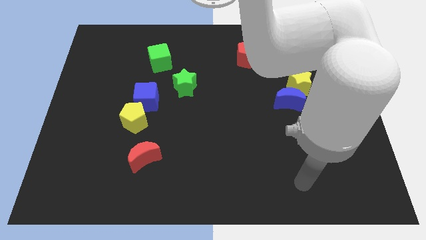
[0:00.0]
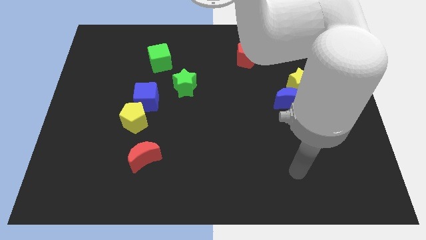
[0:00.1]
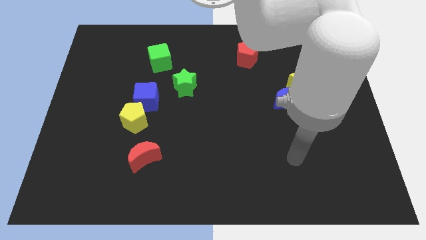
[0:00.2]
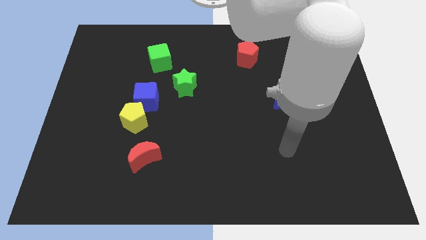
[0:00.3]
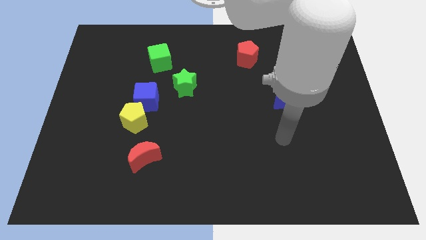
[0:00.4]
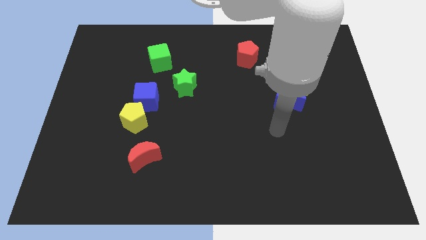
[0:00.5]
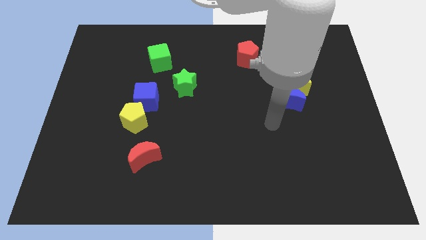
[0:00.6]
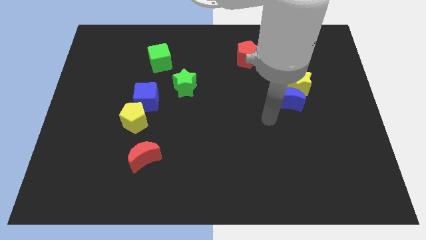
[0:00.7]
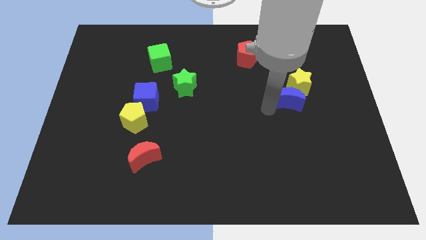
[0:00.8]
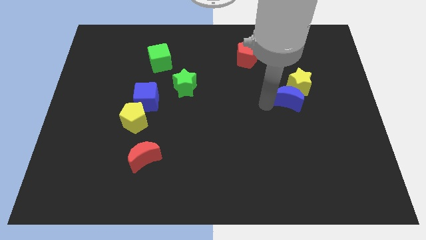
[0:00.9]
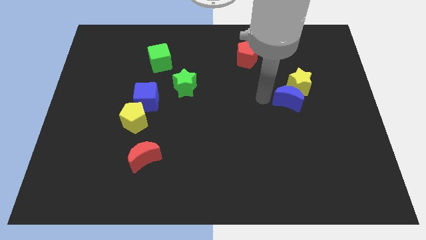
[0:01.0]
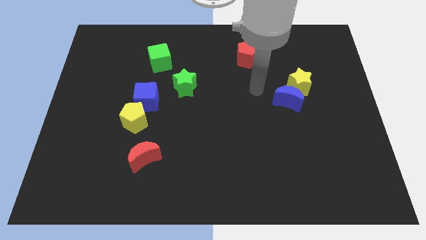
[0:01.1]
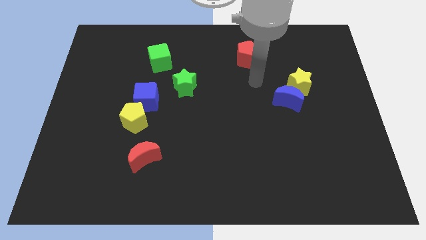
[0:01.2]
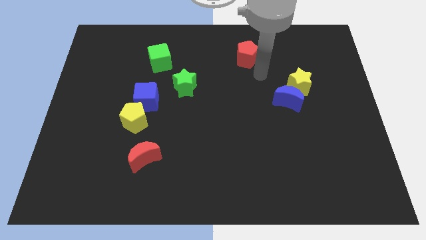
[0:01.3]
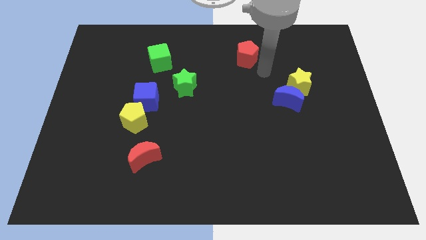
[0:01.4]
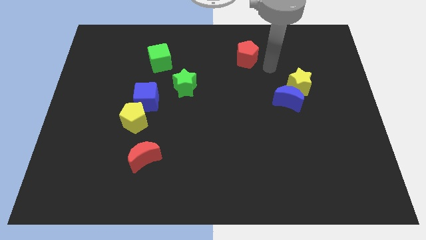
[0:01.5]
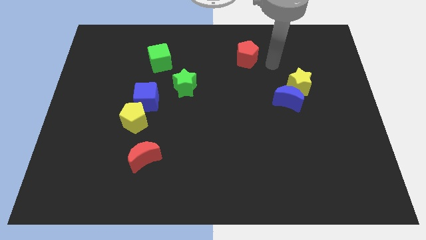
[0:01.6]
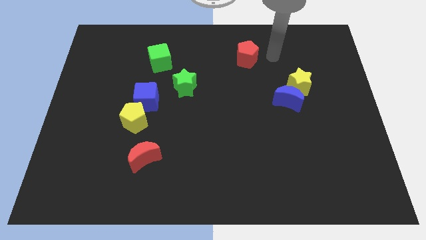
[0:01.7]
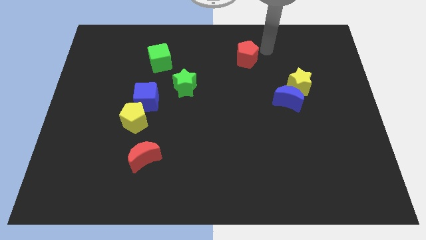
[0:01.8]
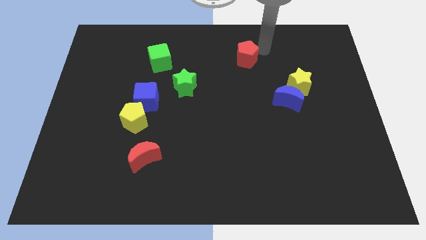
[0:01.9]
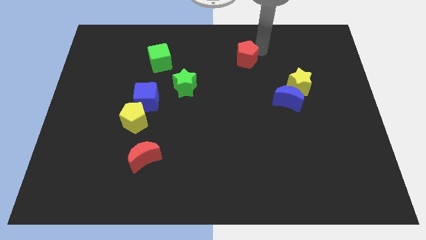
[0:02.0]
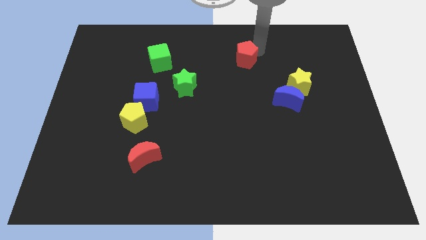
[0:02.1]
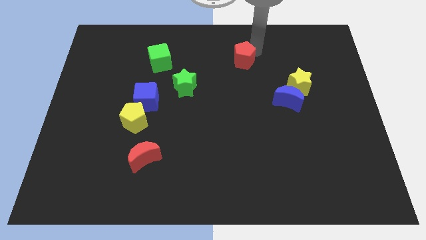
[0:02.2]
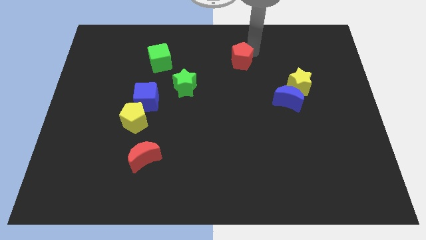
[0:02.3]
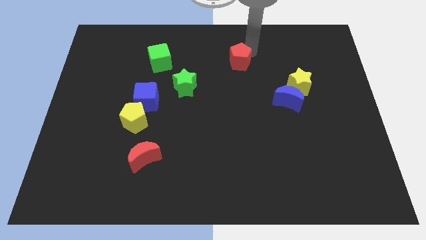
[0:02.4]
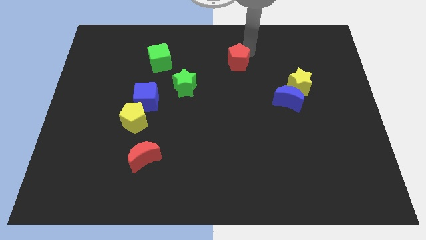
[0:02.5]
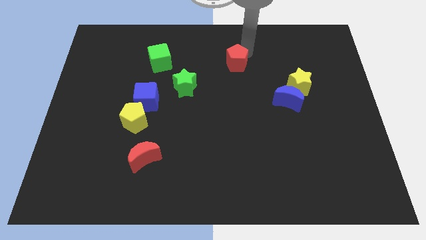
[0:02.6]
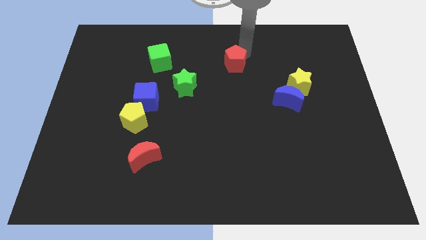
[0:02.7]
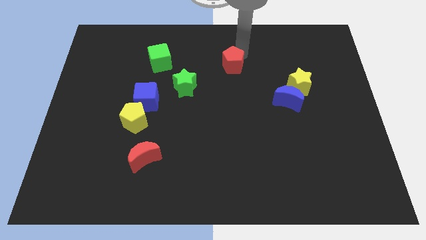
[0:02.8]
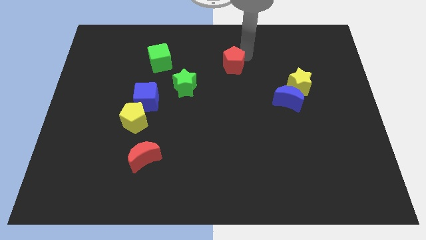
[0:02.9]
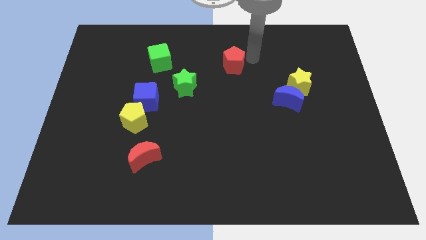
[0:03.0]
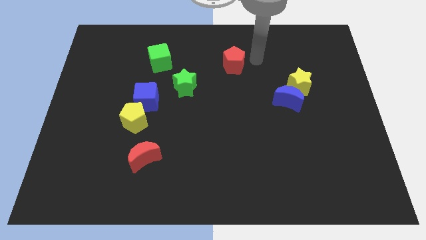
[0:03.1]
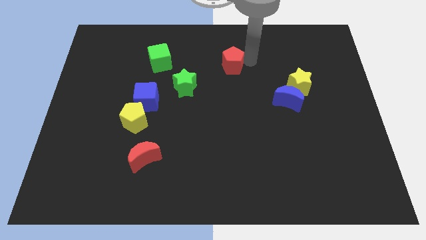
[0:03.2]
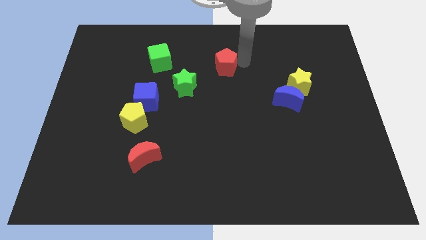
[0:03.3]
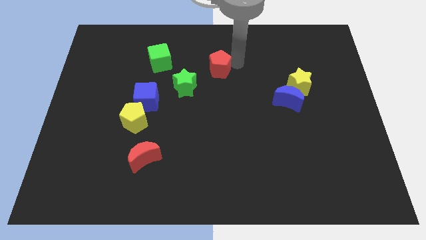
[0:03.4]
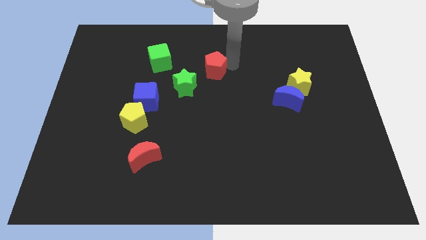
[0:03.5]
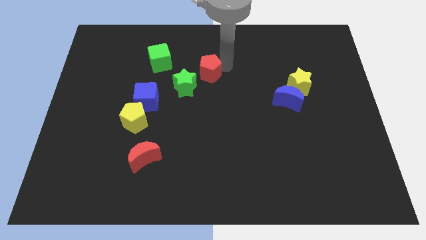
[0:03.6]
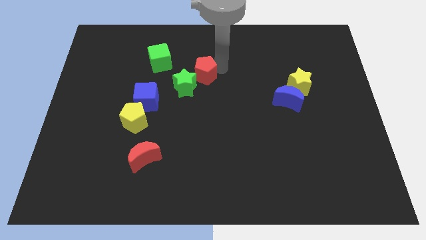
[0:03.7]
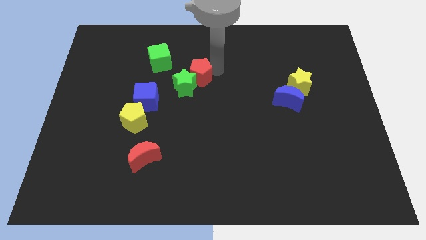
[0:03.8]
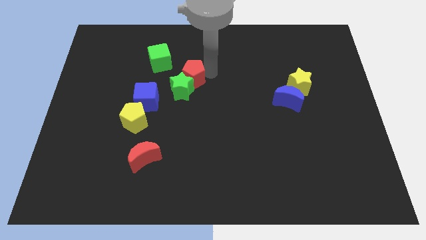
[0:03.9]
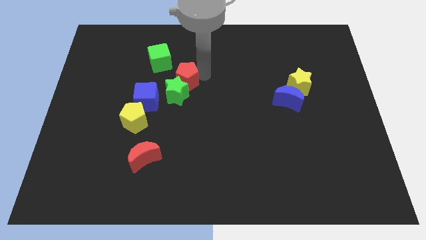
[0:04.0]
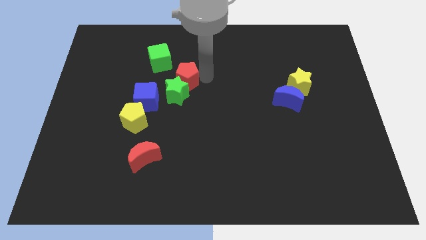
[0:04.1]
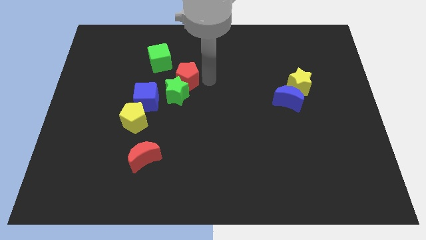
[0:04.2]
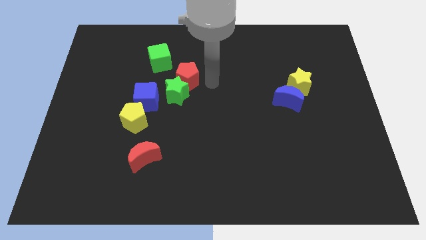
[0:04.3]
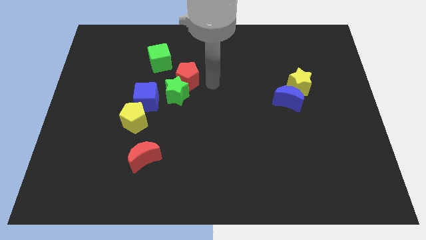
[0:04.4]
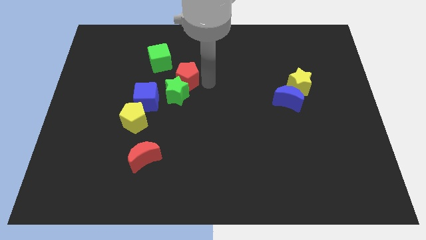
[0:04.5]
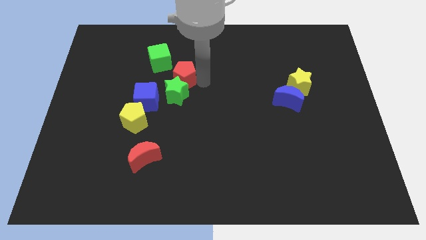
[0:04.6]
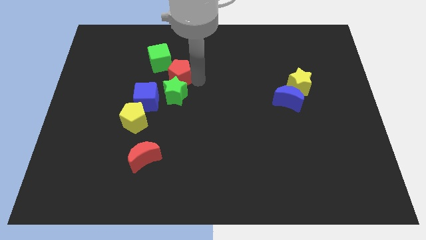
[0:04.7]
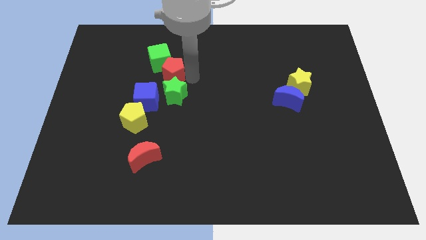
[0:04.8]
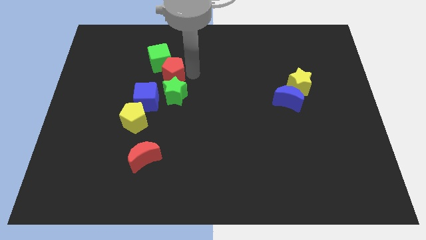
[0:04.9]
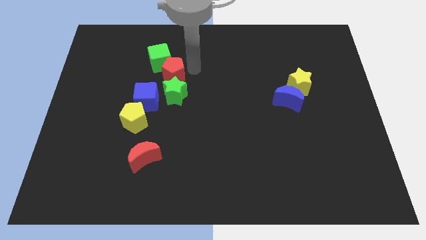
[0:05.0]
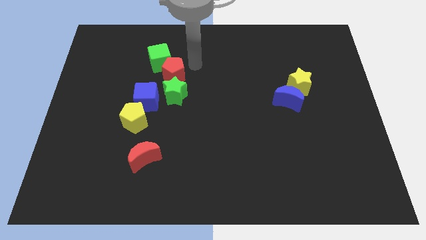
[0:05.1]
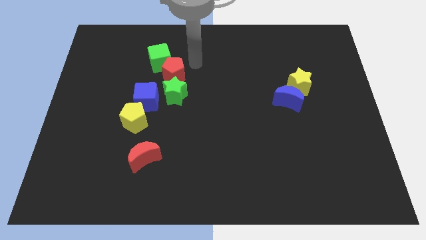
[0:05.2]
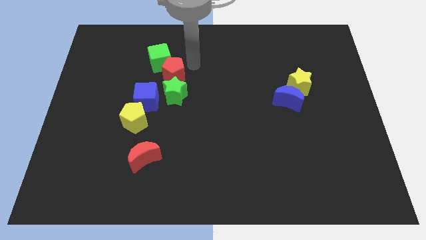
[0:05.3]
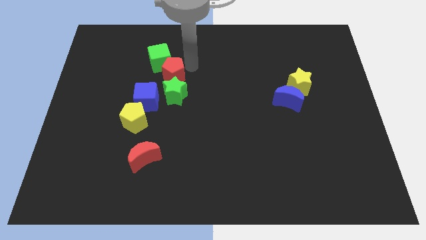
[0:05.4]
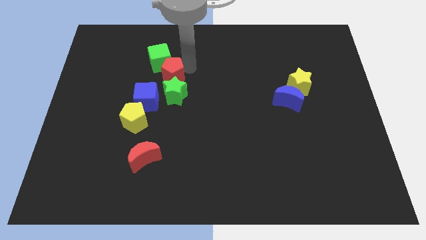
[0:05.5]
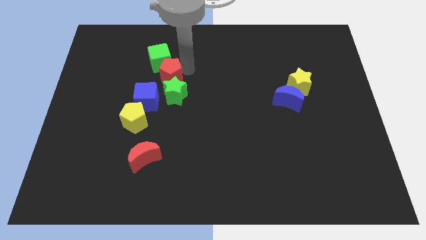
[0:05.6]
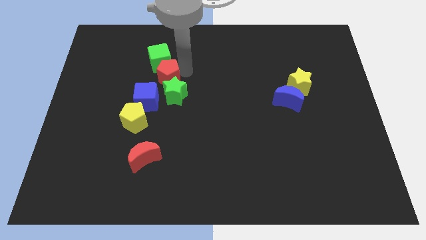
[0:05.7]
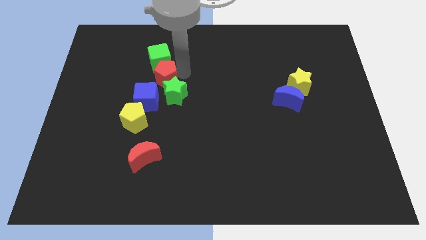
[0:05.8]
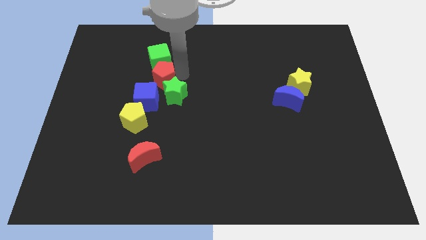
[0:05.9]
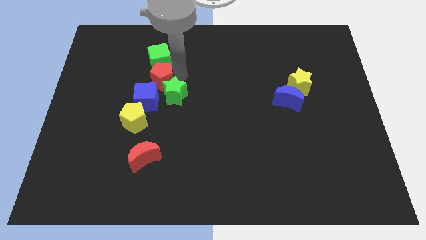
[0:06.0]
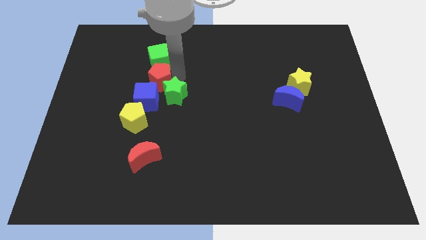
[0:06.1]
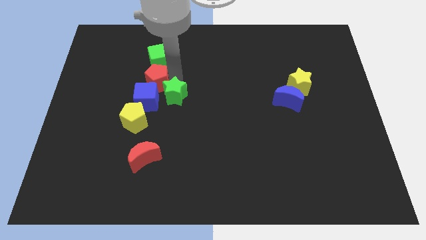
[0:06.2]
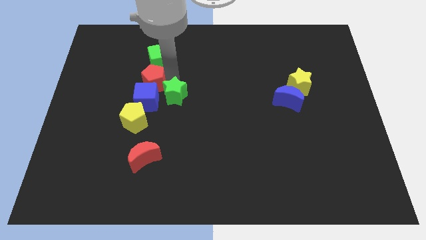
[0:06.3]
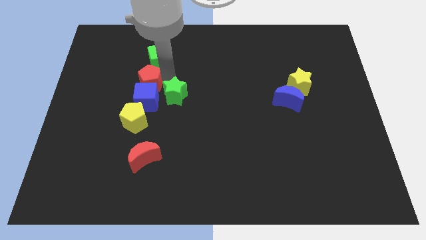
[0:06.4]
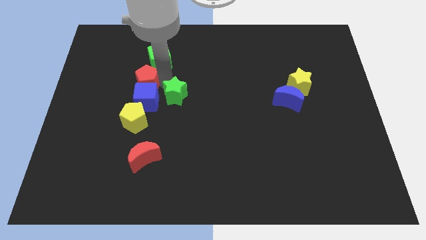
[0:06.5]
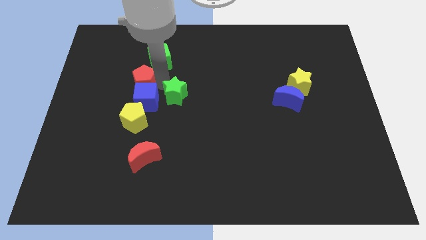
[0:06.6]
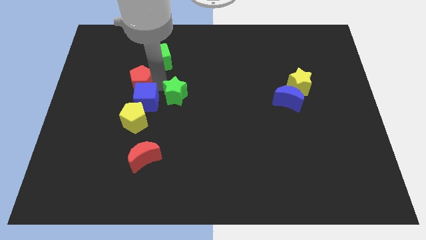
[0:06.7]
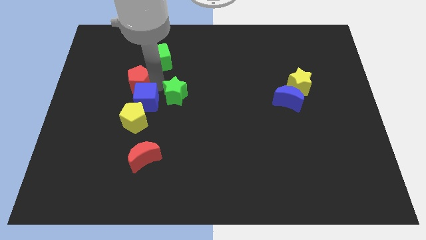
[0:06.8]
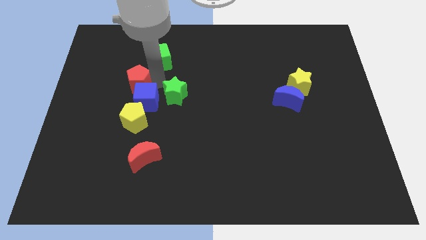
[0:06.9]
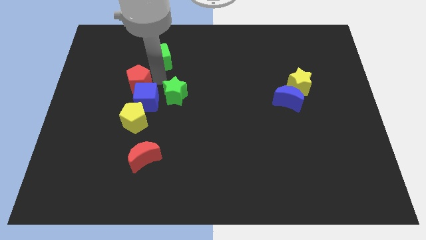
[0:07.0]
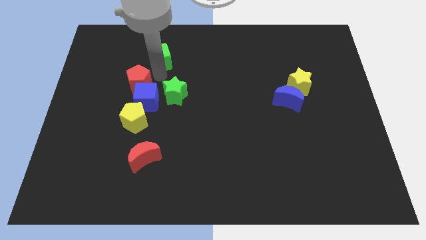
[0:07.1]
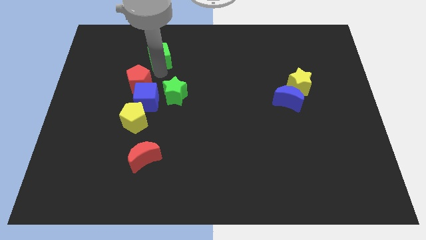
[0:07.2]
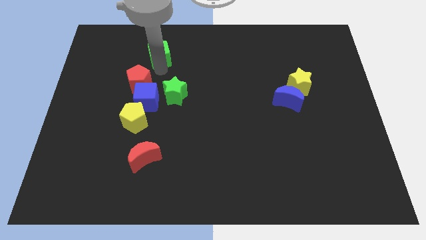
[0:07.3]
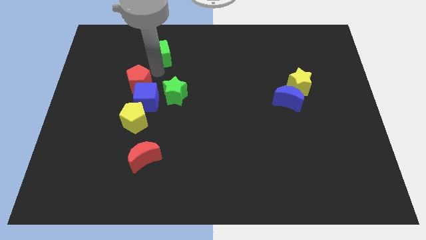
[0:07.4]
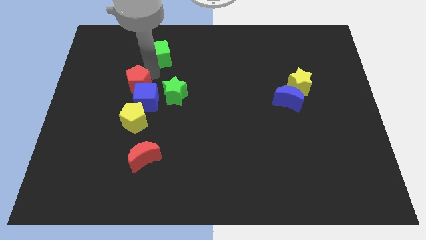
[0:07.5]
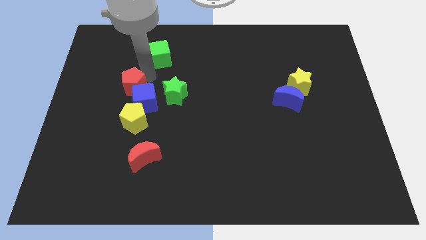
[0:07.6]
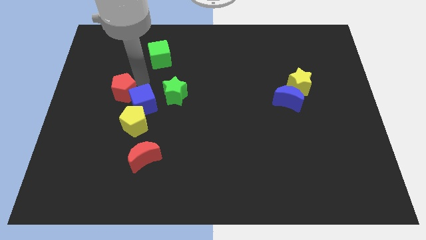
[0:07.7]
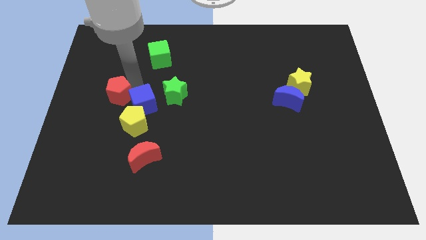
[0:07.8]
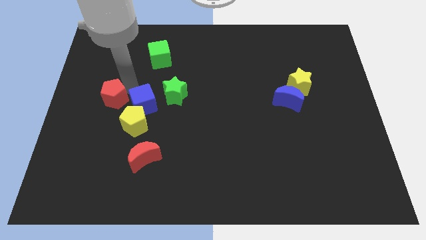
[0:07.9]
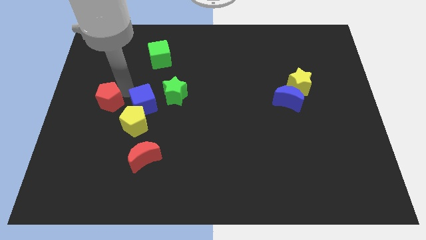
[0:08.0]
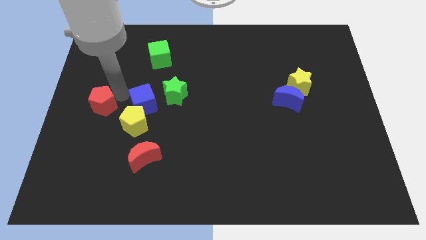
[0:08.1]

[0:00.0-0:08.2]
put the red pentagon to the center left
